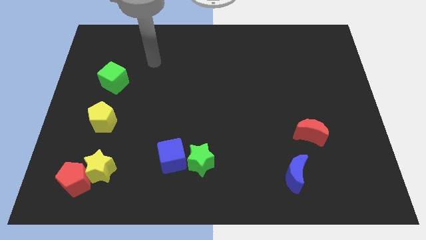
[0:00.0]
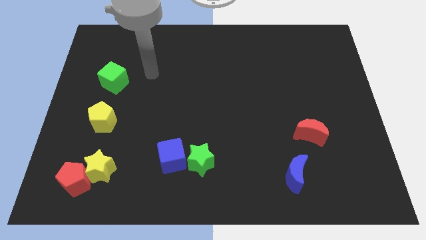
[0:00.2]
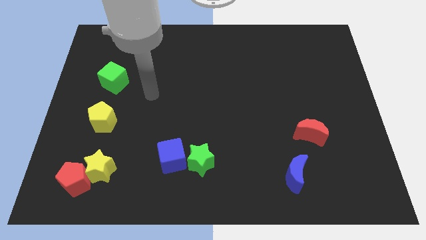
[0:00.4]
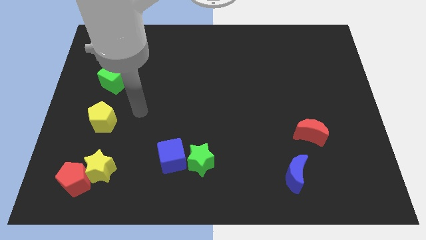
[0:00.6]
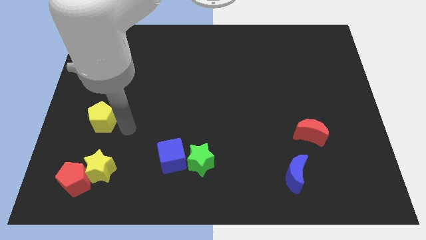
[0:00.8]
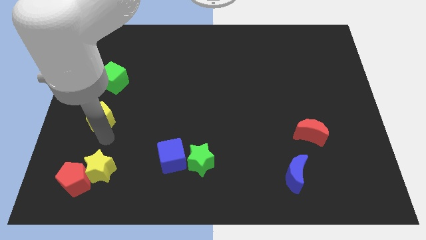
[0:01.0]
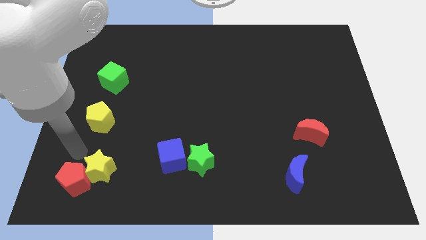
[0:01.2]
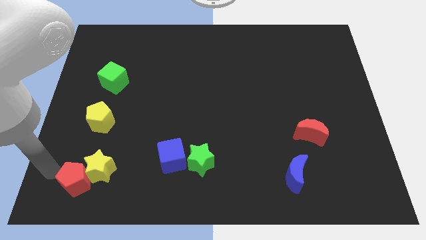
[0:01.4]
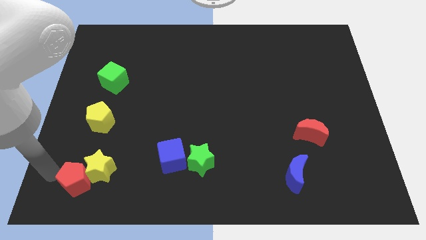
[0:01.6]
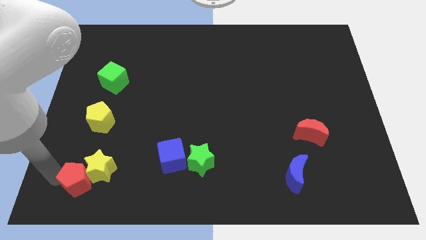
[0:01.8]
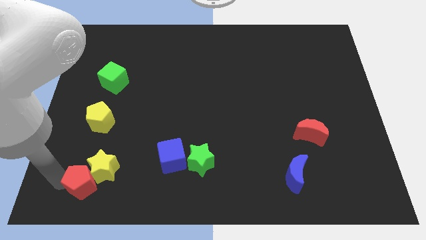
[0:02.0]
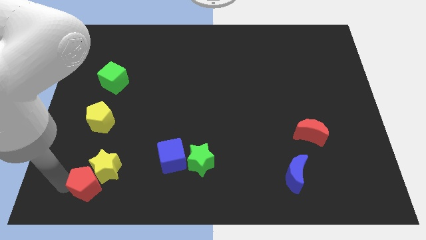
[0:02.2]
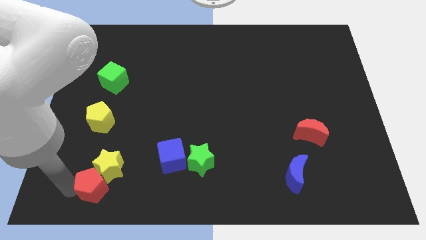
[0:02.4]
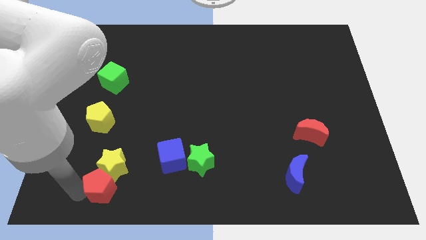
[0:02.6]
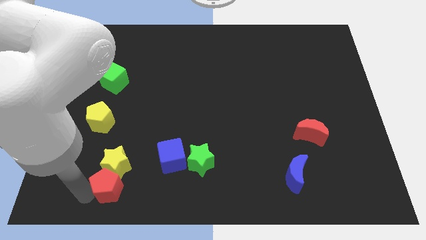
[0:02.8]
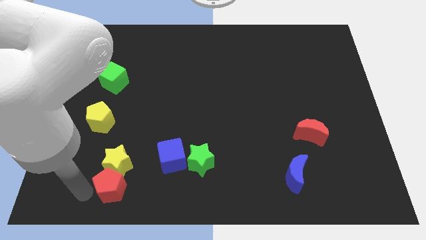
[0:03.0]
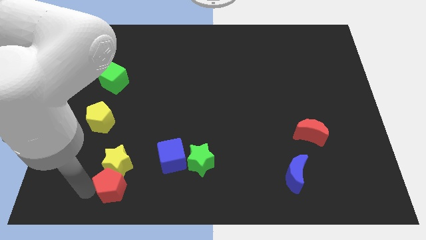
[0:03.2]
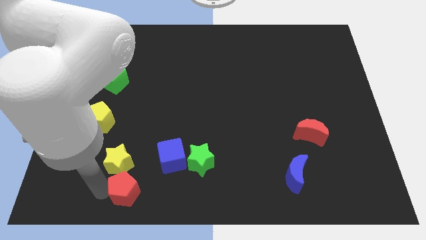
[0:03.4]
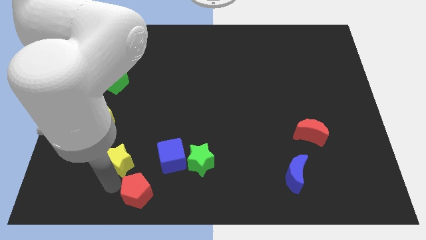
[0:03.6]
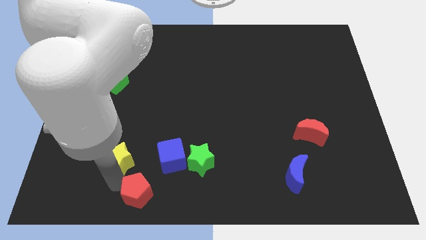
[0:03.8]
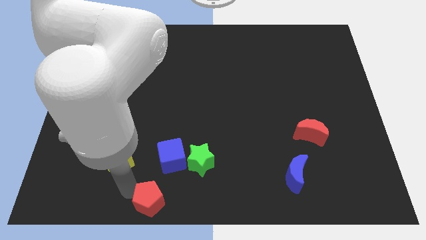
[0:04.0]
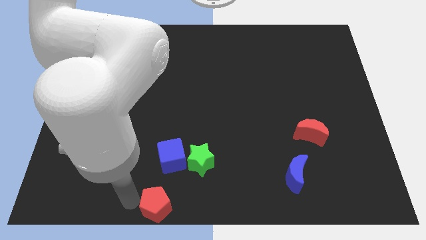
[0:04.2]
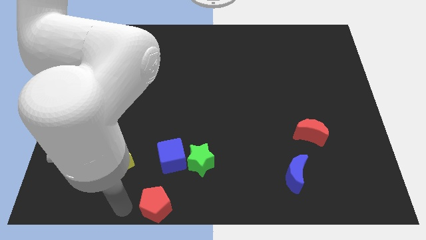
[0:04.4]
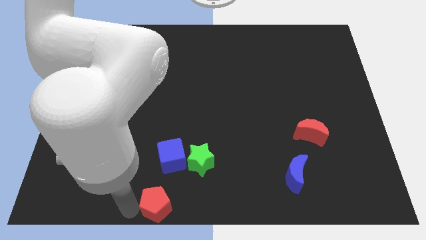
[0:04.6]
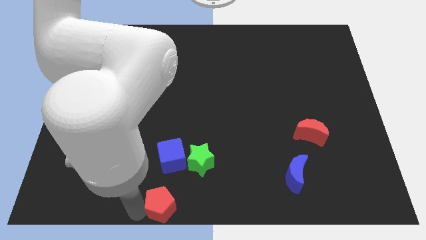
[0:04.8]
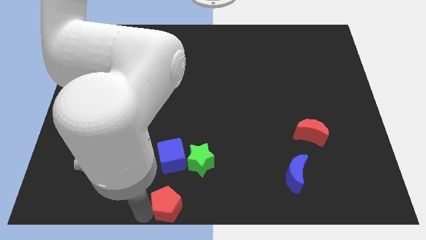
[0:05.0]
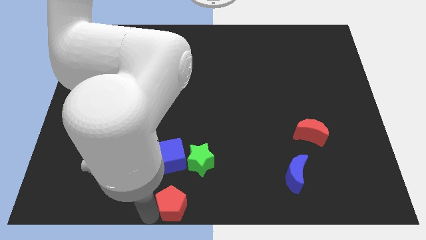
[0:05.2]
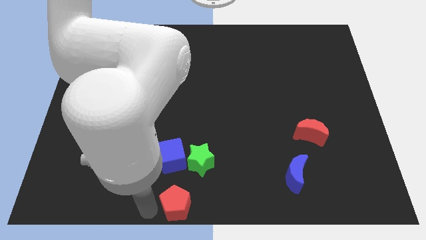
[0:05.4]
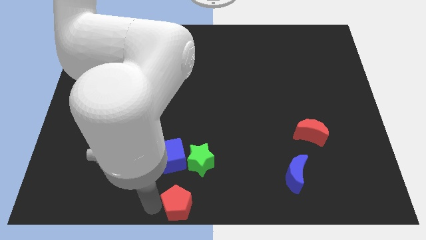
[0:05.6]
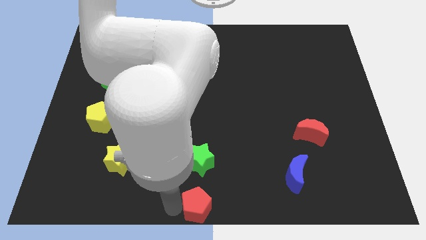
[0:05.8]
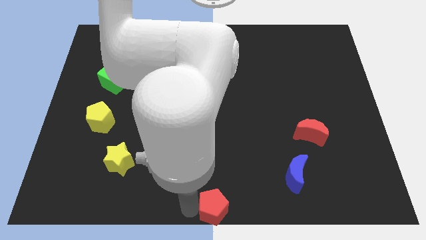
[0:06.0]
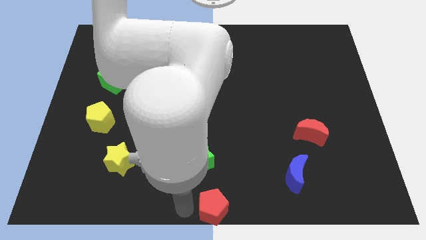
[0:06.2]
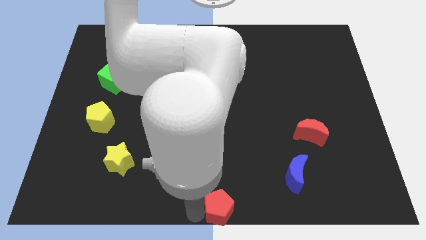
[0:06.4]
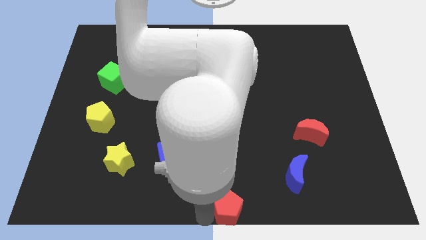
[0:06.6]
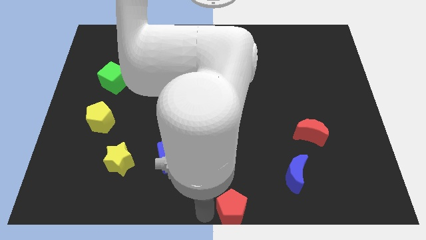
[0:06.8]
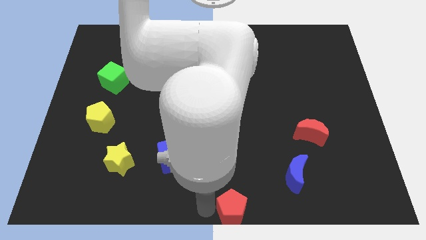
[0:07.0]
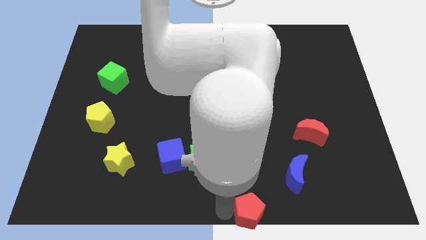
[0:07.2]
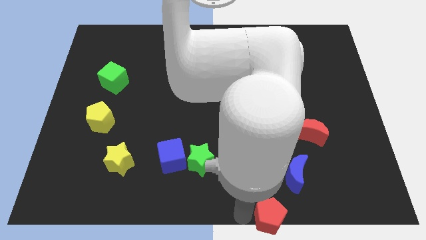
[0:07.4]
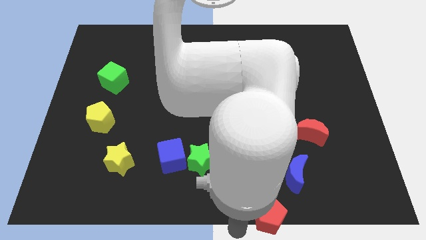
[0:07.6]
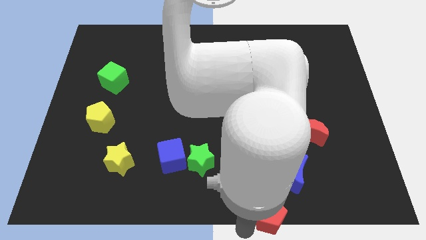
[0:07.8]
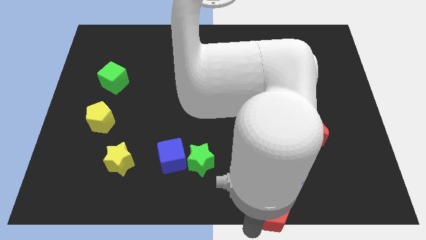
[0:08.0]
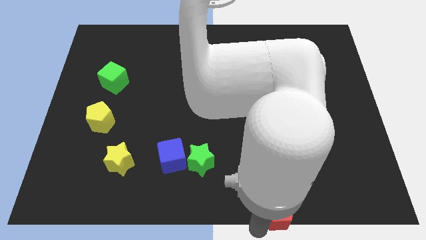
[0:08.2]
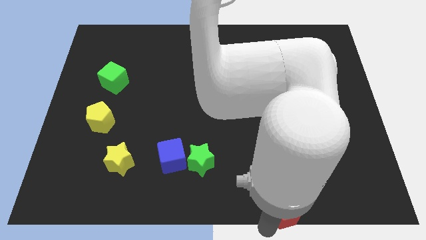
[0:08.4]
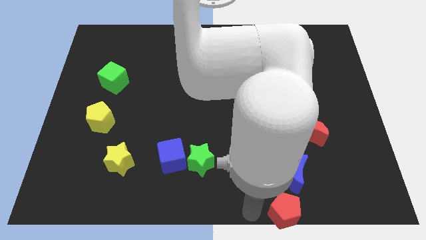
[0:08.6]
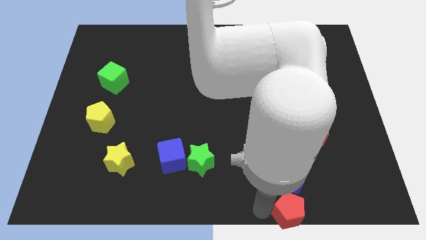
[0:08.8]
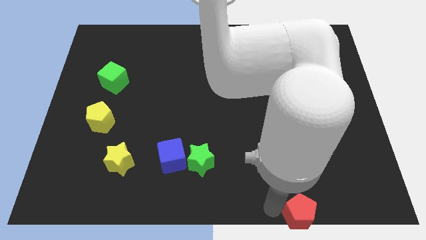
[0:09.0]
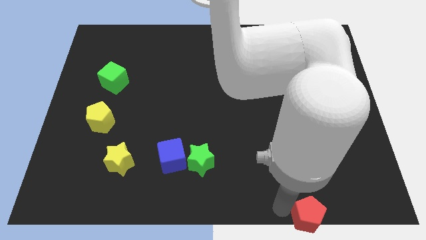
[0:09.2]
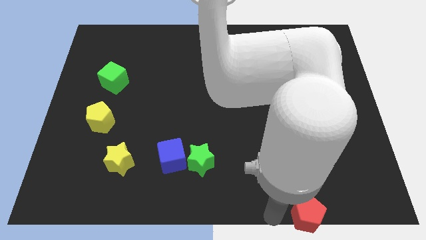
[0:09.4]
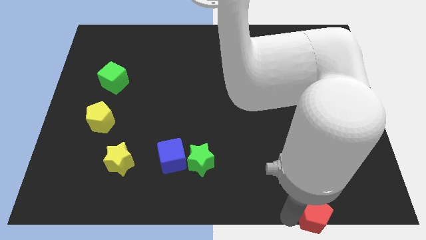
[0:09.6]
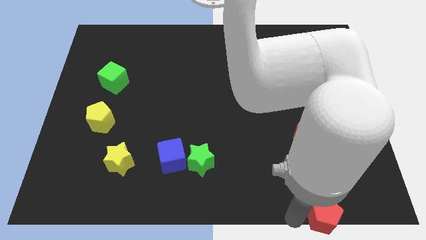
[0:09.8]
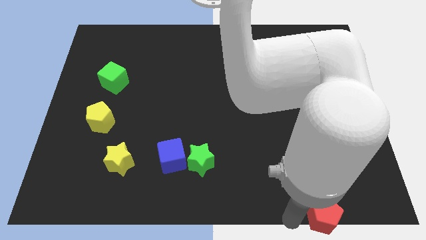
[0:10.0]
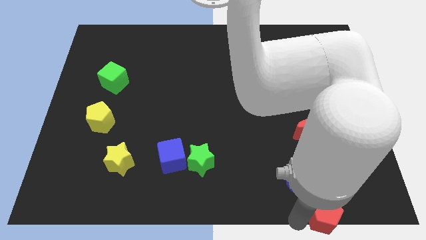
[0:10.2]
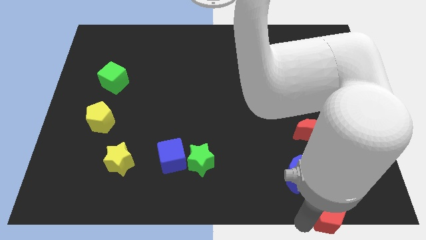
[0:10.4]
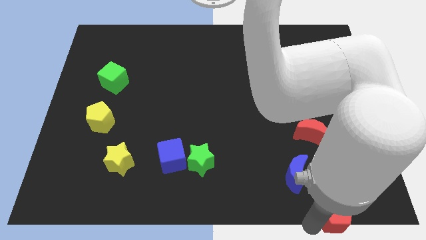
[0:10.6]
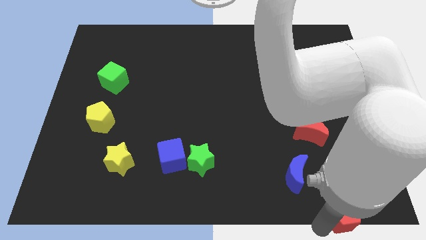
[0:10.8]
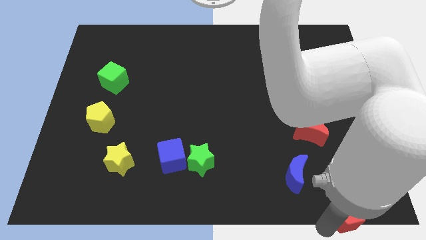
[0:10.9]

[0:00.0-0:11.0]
move the red pentagon to the bottom right

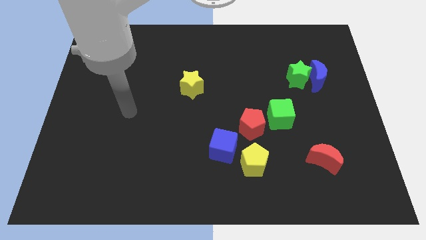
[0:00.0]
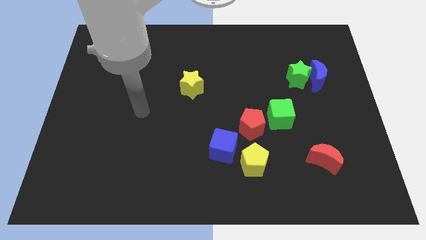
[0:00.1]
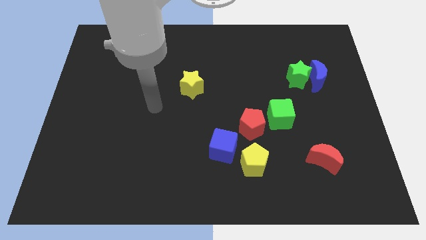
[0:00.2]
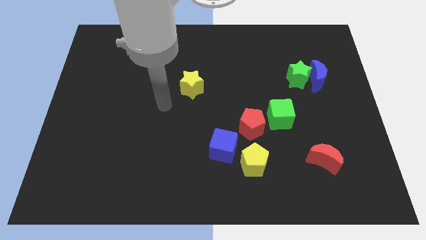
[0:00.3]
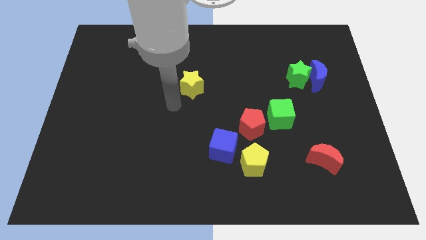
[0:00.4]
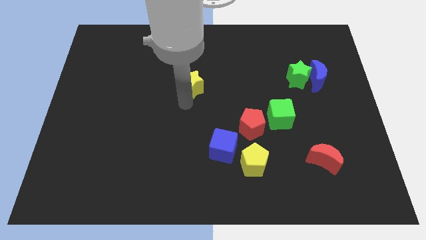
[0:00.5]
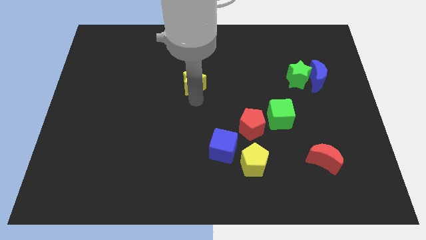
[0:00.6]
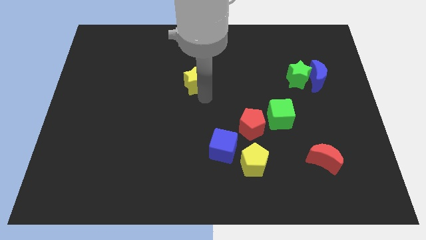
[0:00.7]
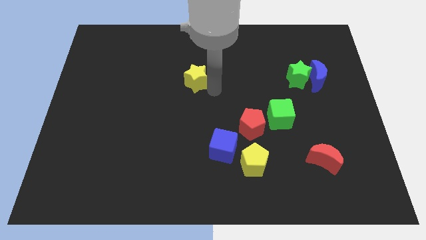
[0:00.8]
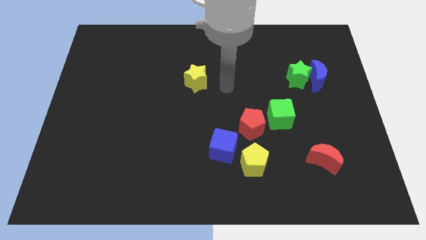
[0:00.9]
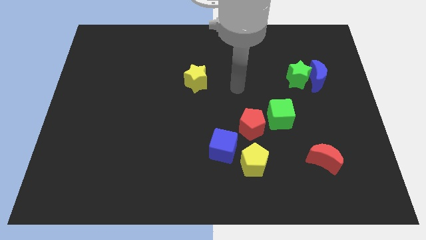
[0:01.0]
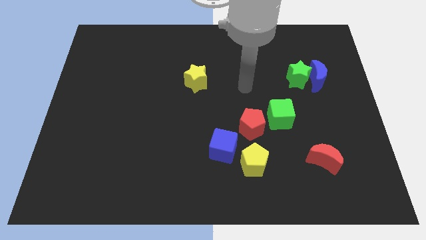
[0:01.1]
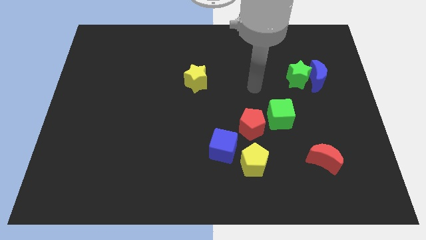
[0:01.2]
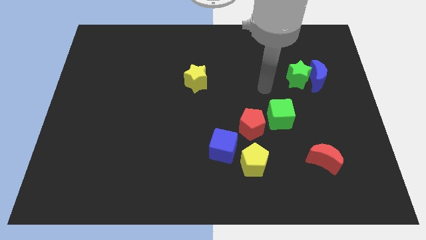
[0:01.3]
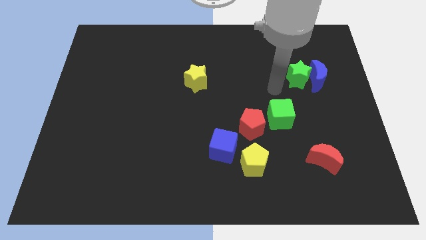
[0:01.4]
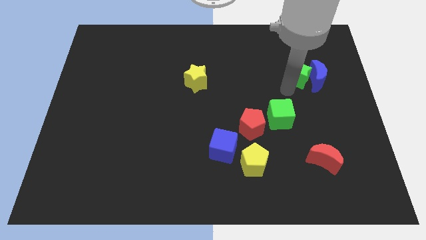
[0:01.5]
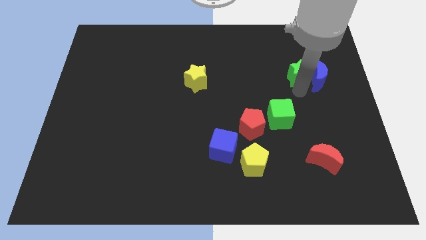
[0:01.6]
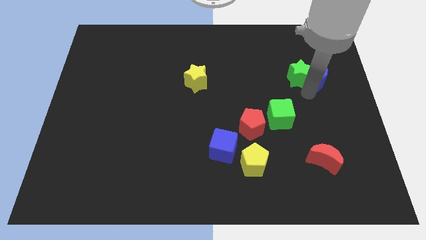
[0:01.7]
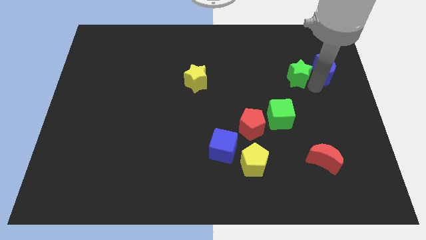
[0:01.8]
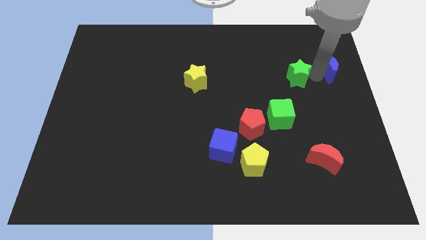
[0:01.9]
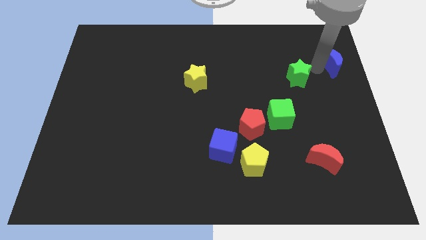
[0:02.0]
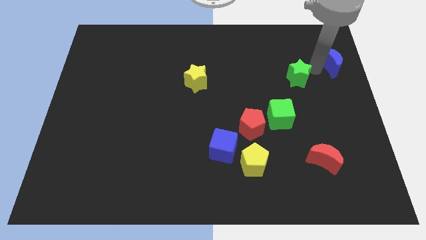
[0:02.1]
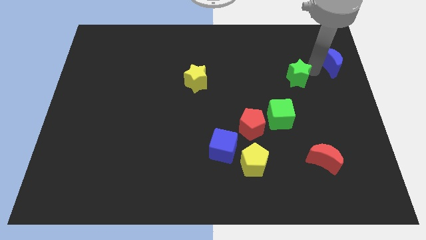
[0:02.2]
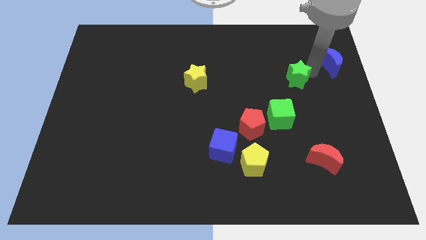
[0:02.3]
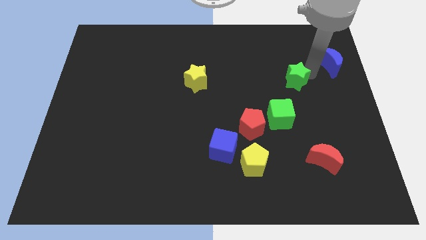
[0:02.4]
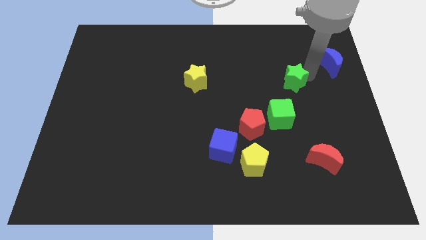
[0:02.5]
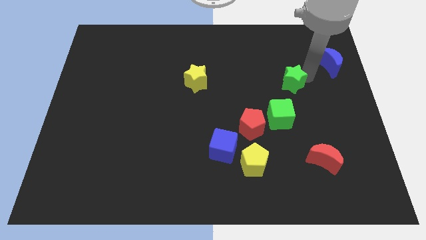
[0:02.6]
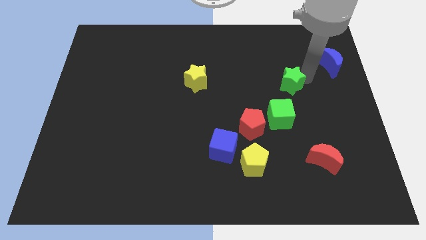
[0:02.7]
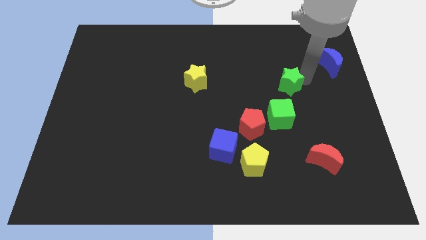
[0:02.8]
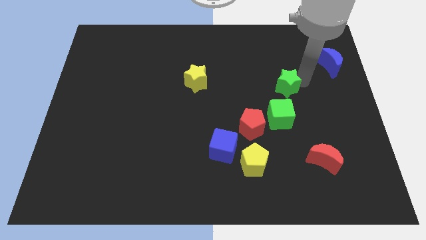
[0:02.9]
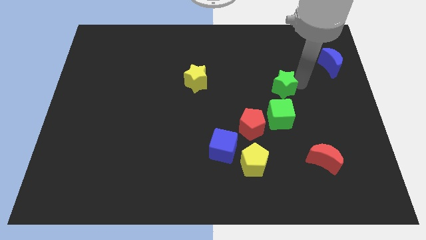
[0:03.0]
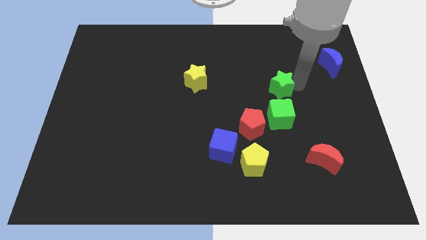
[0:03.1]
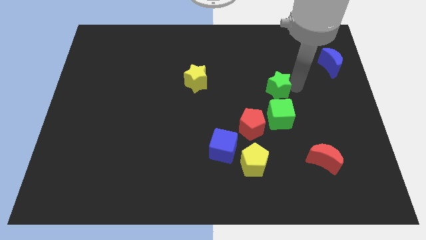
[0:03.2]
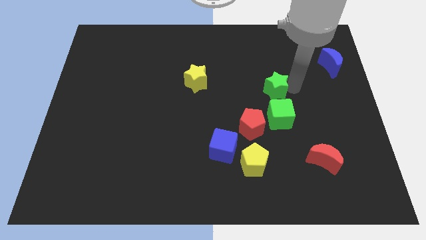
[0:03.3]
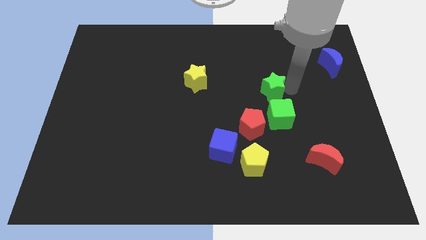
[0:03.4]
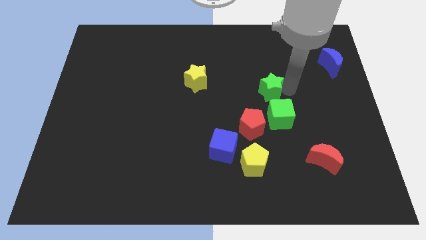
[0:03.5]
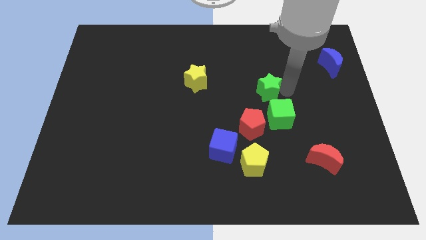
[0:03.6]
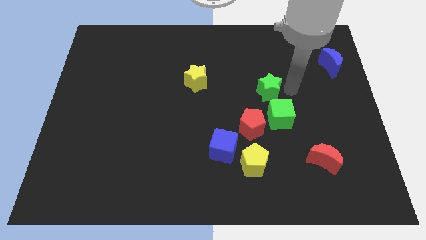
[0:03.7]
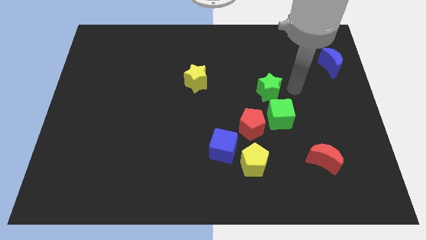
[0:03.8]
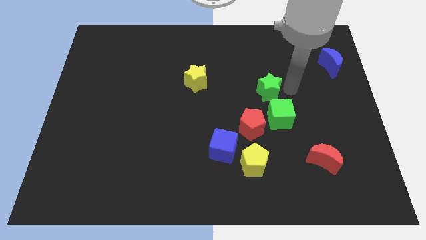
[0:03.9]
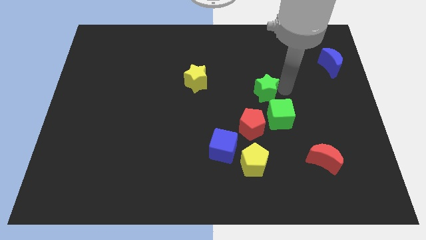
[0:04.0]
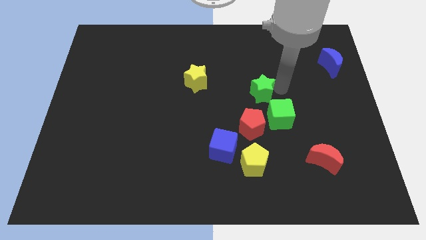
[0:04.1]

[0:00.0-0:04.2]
move the green star to the center
